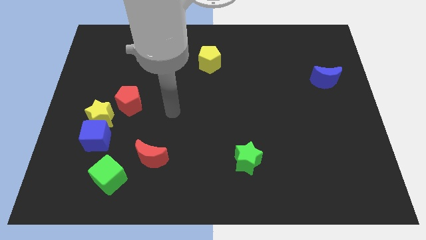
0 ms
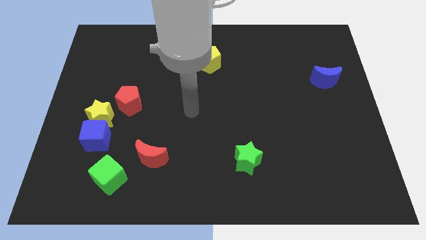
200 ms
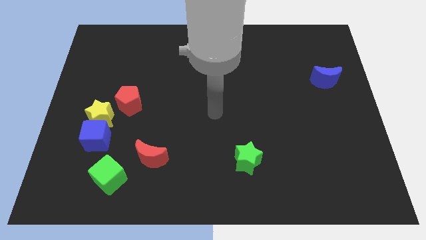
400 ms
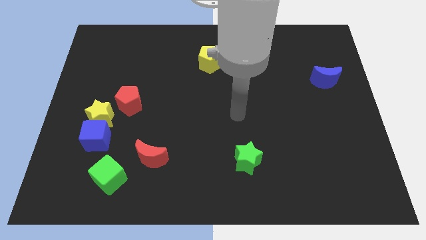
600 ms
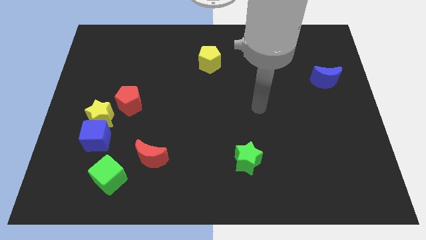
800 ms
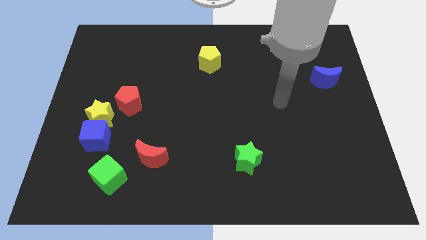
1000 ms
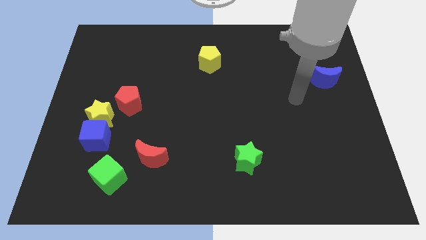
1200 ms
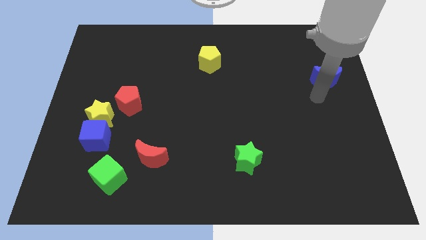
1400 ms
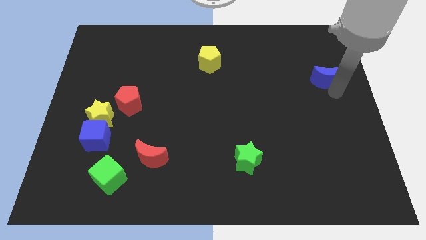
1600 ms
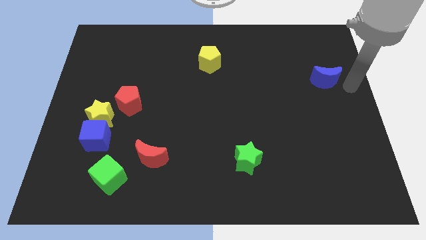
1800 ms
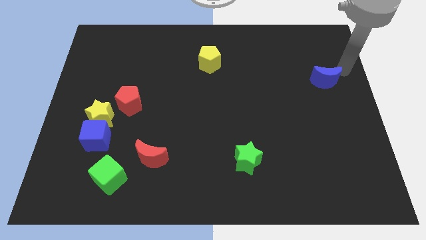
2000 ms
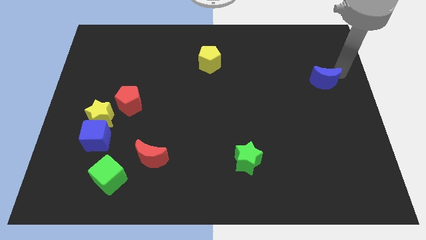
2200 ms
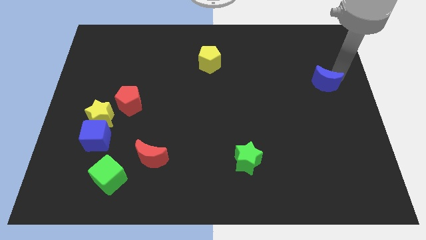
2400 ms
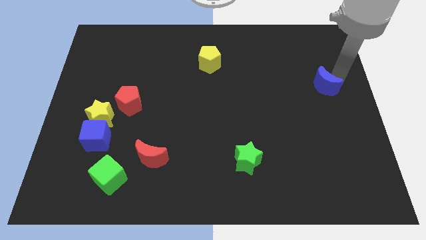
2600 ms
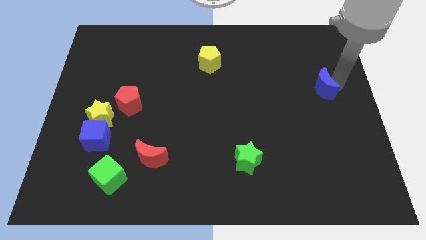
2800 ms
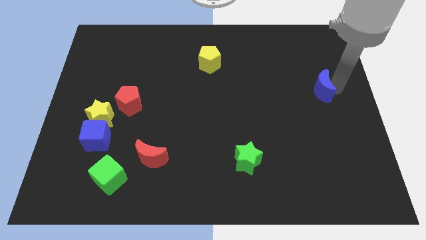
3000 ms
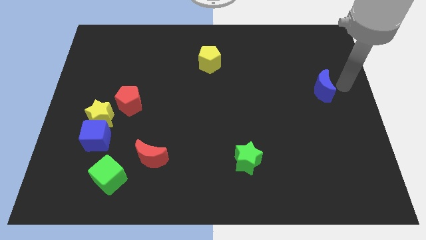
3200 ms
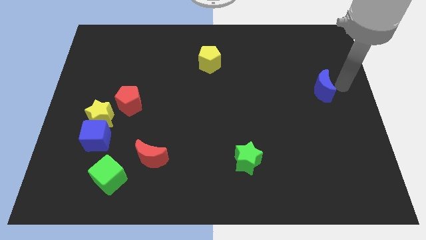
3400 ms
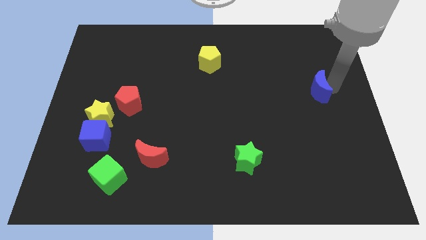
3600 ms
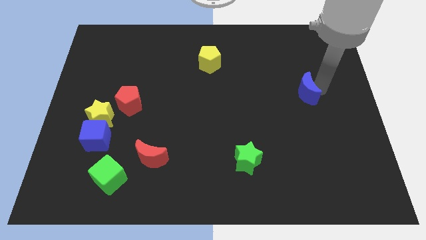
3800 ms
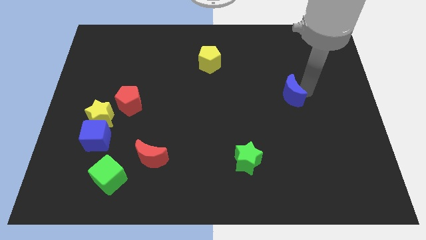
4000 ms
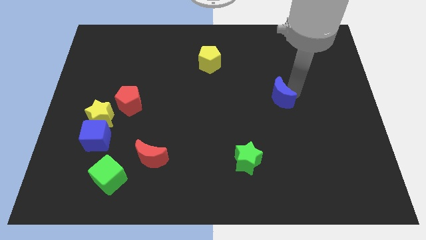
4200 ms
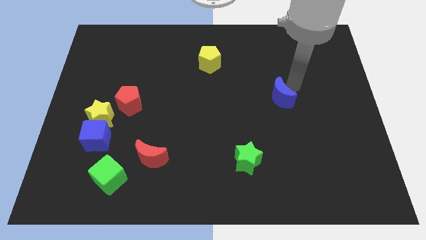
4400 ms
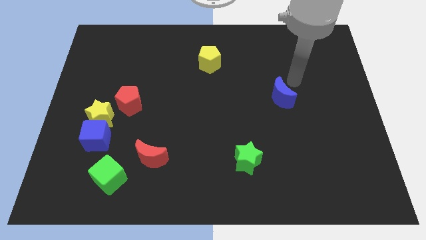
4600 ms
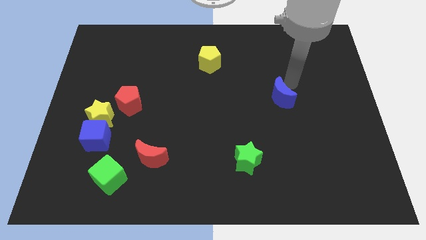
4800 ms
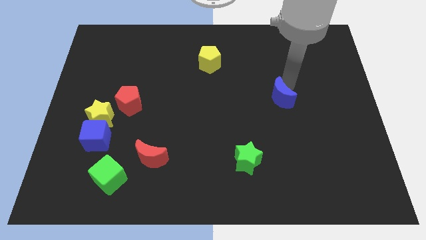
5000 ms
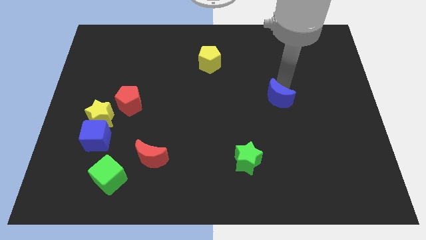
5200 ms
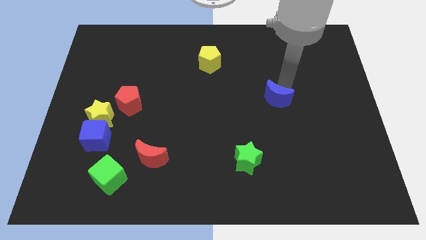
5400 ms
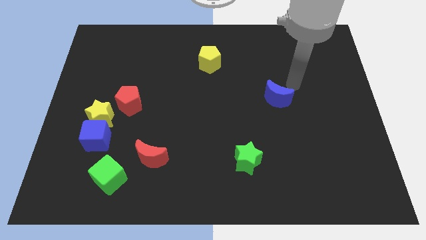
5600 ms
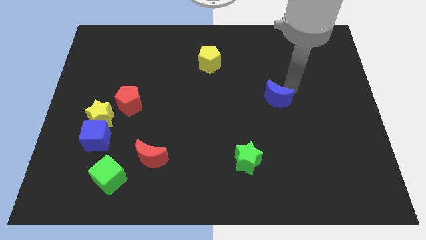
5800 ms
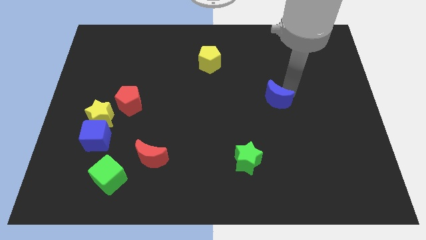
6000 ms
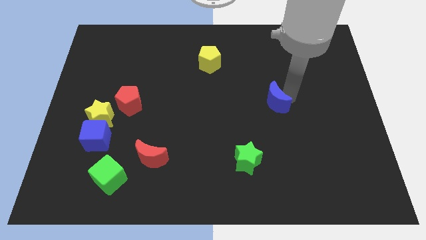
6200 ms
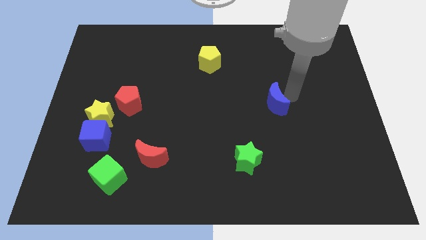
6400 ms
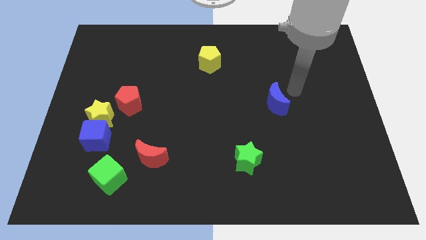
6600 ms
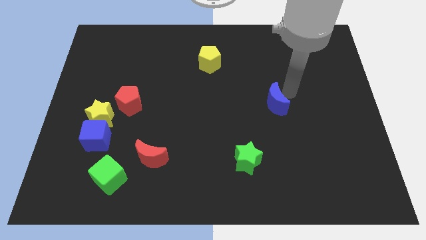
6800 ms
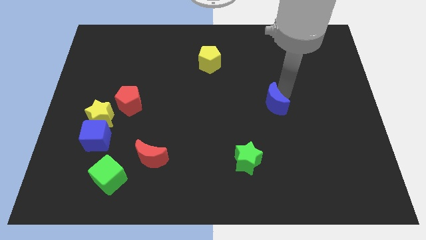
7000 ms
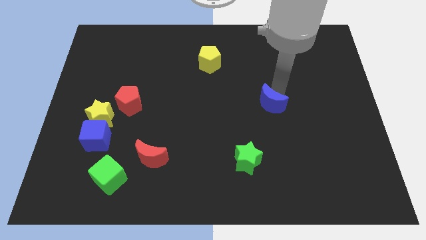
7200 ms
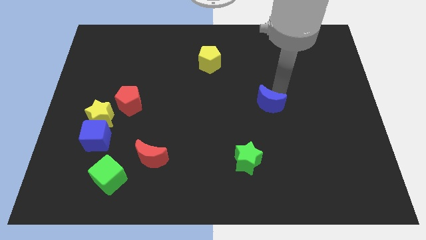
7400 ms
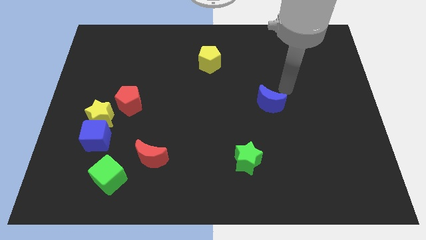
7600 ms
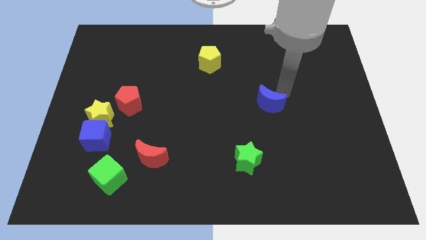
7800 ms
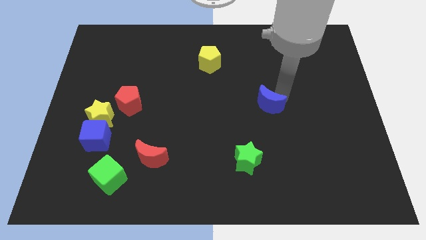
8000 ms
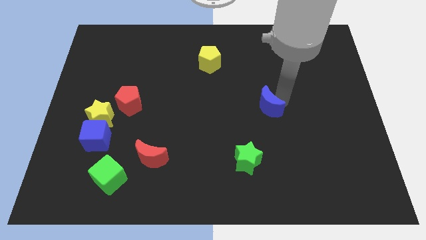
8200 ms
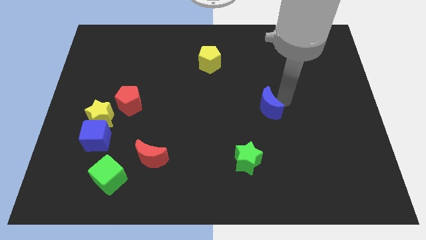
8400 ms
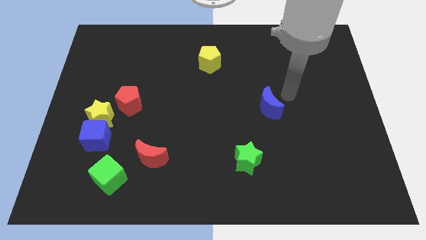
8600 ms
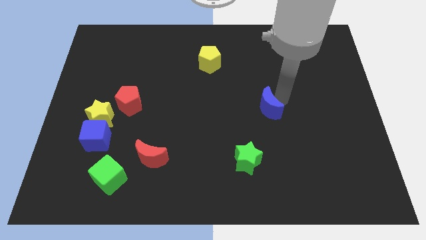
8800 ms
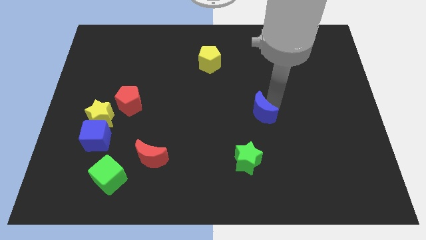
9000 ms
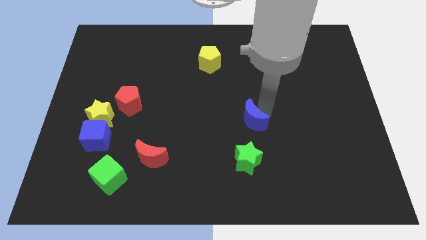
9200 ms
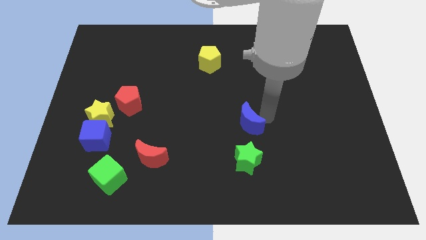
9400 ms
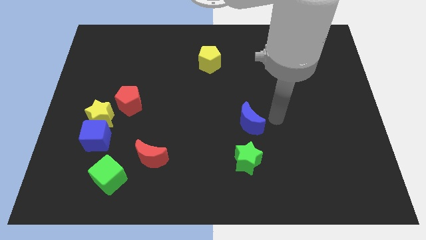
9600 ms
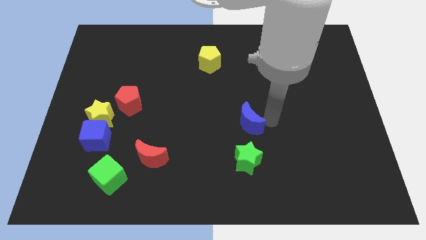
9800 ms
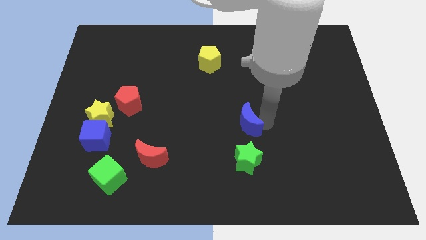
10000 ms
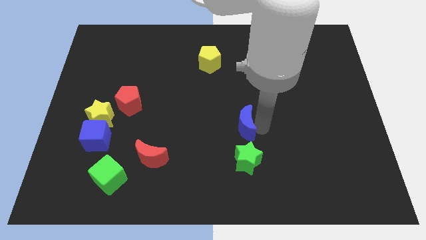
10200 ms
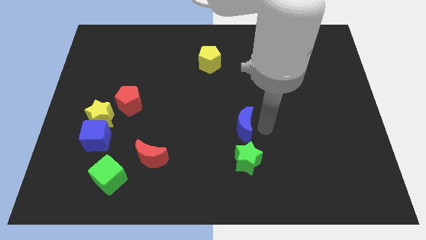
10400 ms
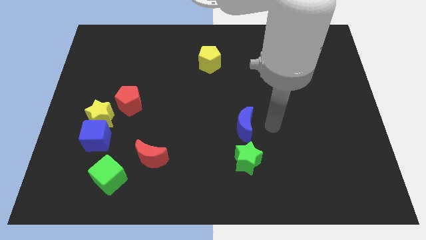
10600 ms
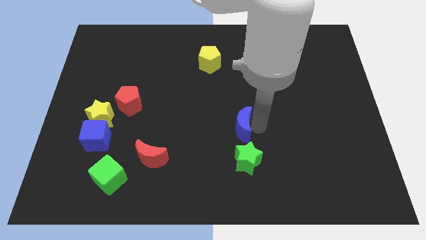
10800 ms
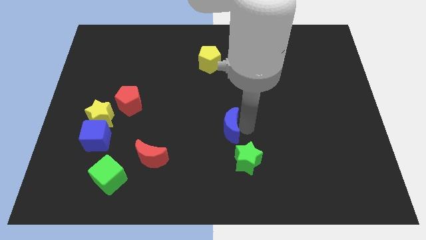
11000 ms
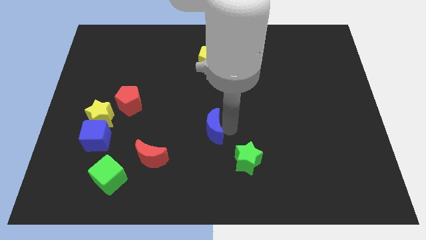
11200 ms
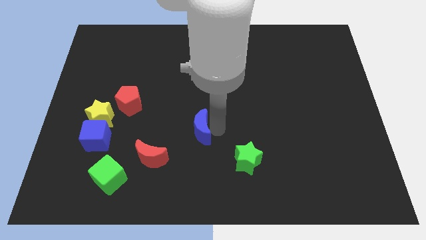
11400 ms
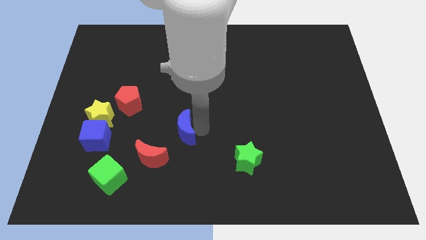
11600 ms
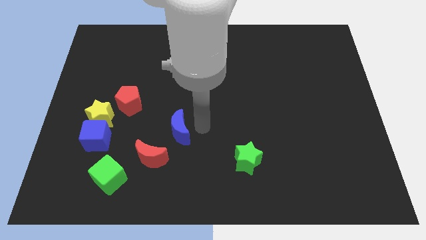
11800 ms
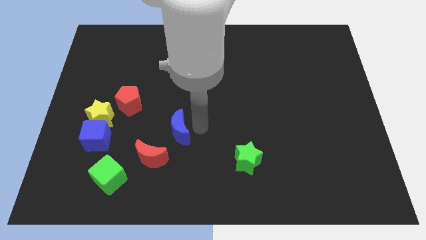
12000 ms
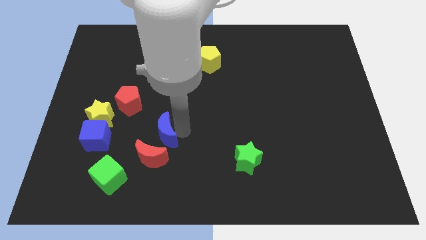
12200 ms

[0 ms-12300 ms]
move the blue moon to the right of the blue cube

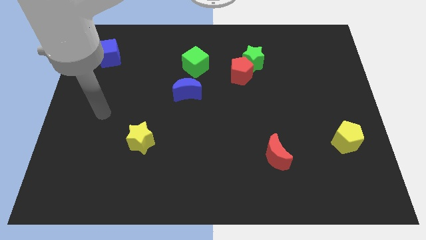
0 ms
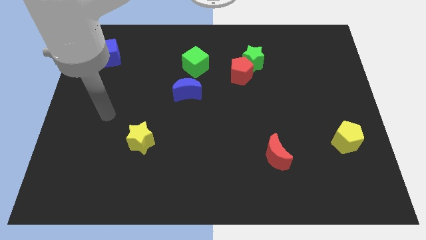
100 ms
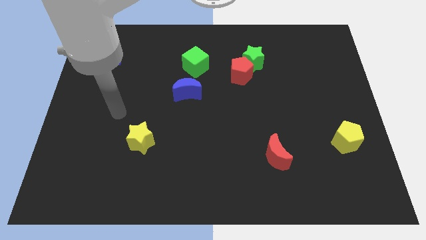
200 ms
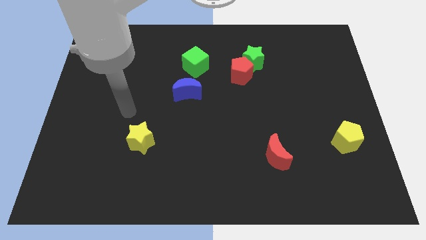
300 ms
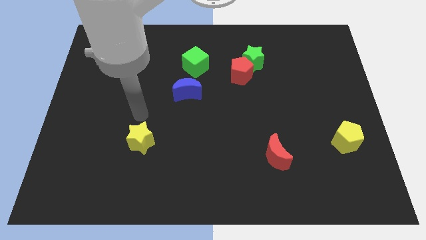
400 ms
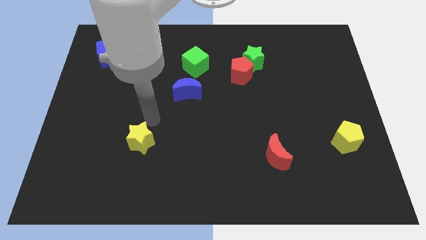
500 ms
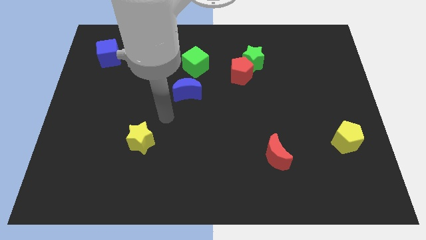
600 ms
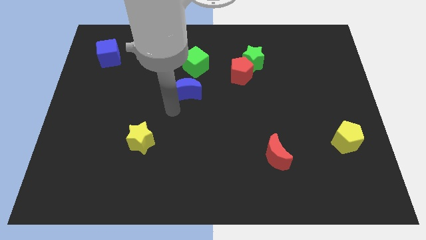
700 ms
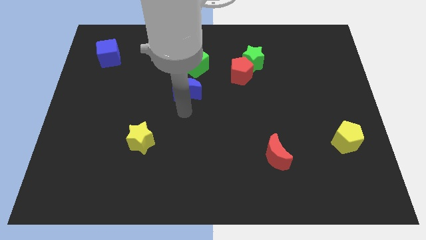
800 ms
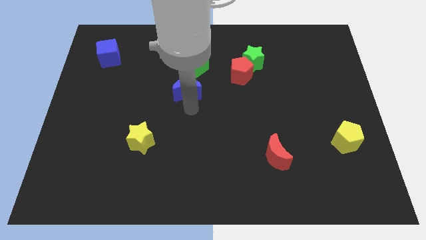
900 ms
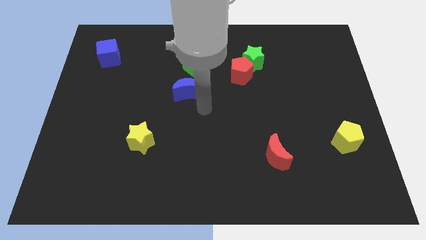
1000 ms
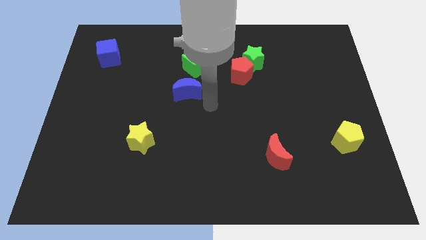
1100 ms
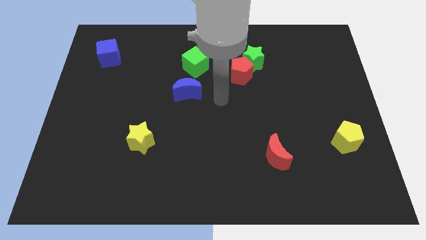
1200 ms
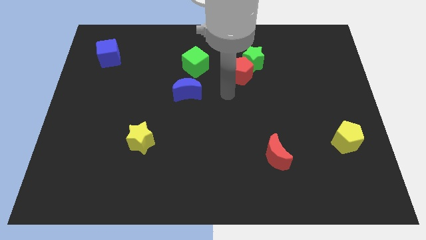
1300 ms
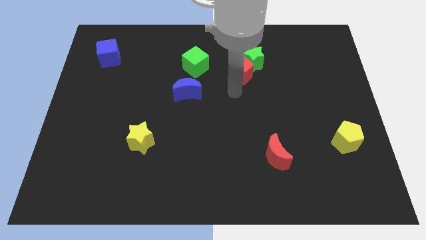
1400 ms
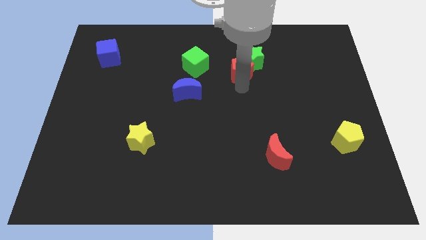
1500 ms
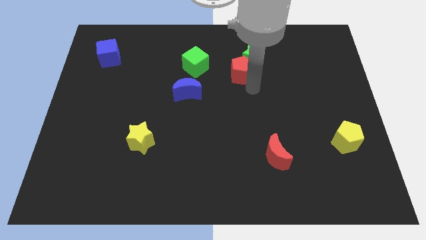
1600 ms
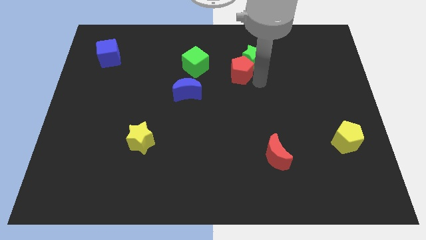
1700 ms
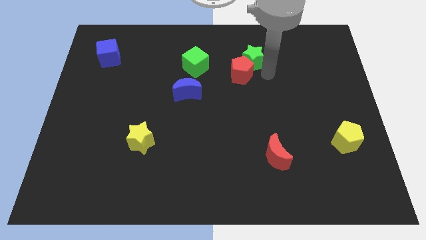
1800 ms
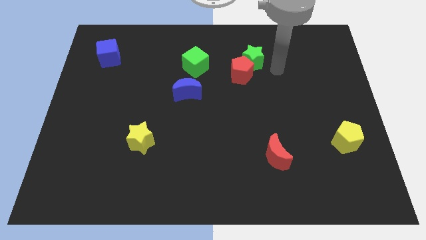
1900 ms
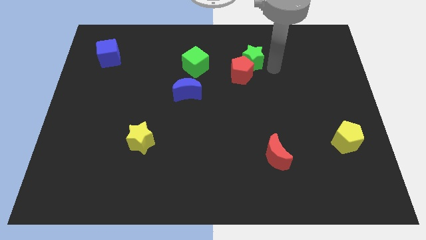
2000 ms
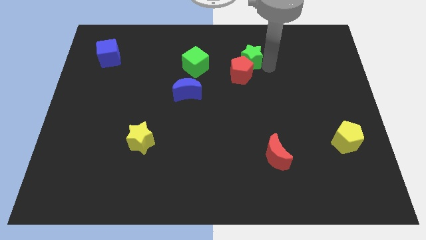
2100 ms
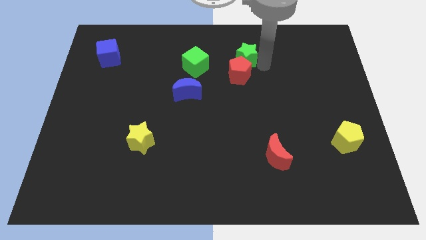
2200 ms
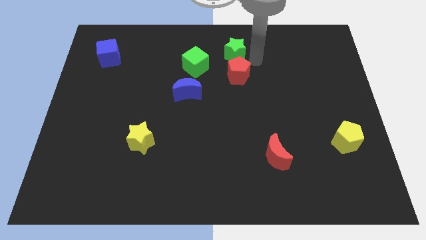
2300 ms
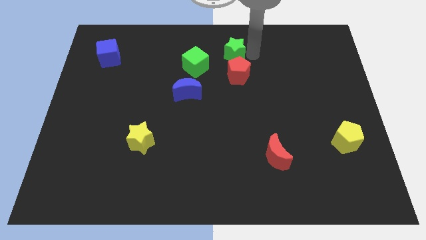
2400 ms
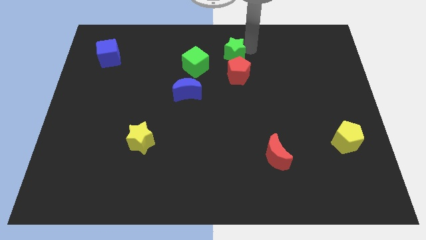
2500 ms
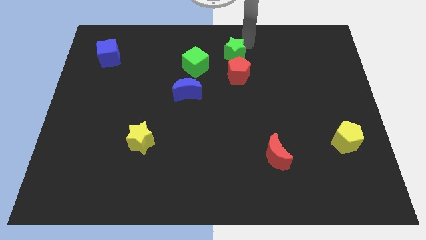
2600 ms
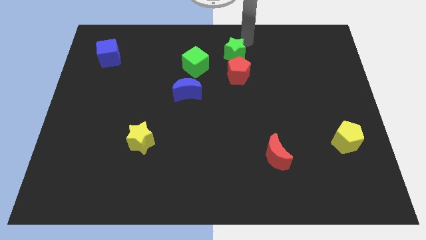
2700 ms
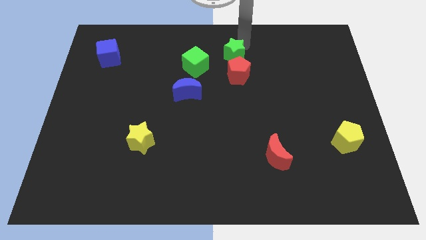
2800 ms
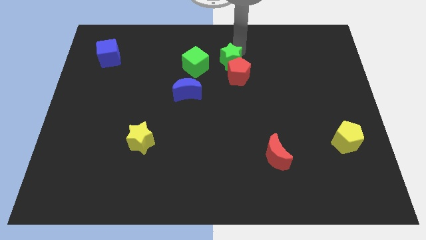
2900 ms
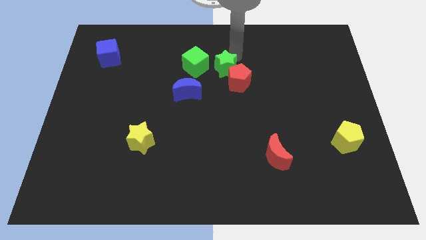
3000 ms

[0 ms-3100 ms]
push the green star diagonally down and to the right of the green cube
